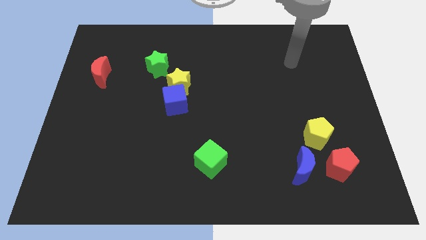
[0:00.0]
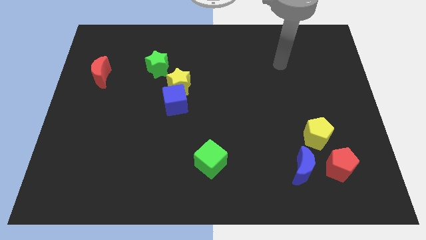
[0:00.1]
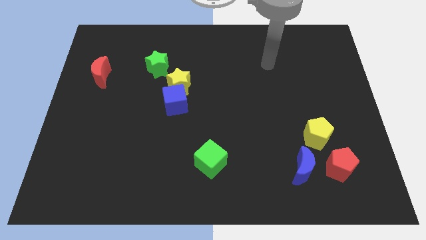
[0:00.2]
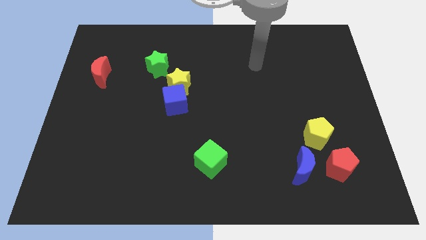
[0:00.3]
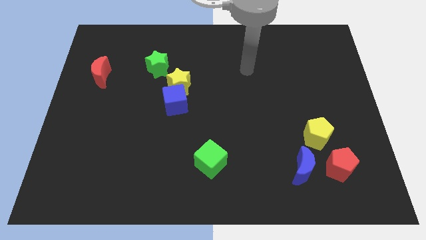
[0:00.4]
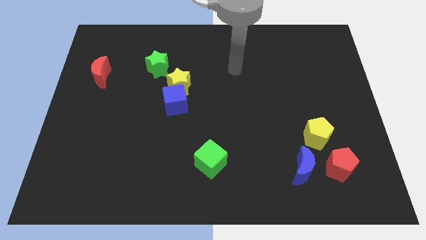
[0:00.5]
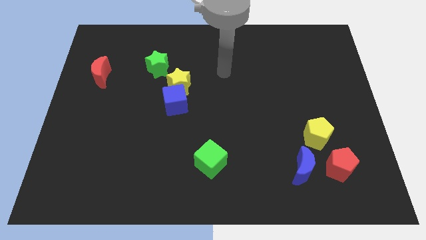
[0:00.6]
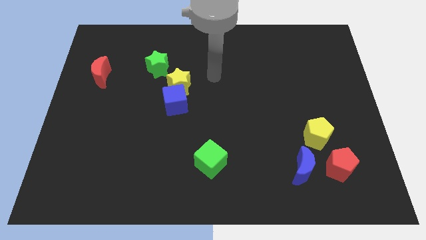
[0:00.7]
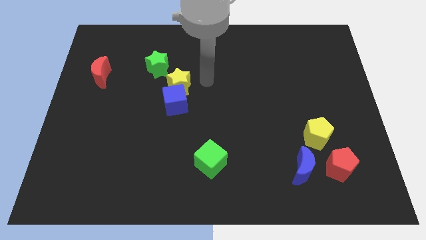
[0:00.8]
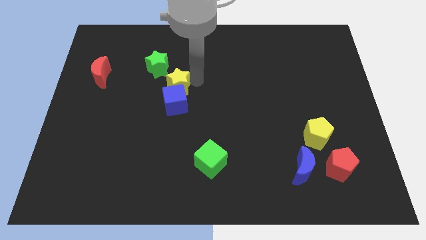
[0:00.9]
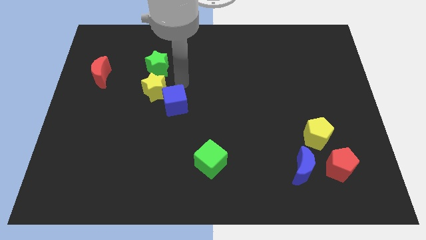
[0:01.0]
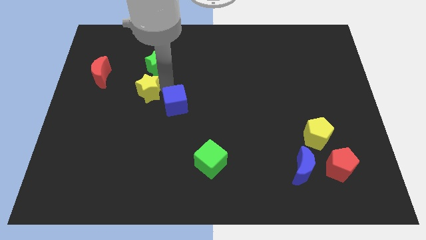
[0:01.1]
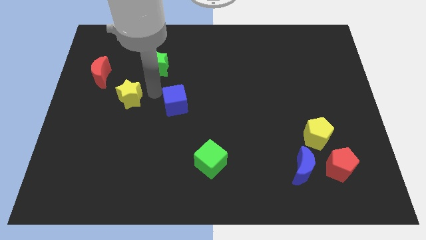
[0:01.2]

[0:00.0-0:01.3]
move the blue cube away from the yellow star

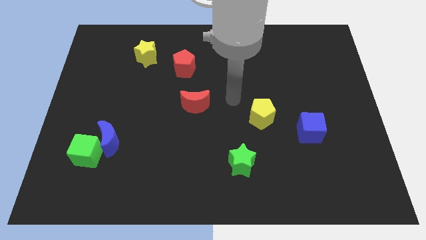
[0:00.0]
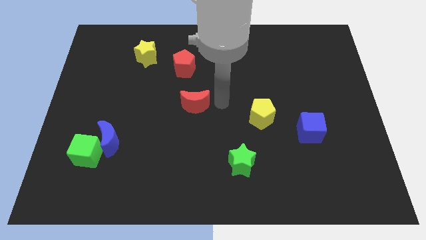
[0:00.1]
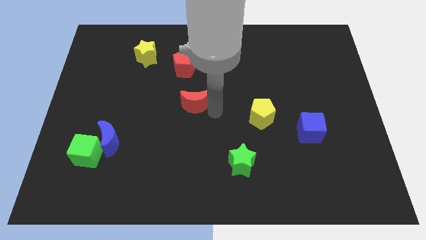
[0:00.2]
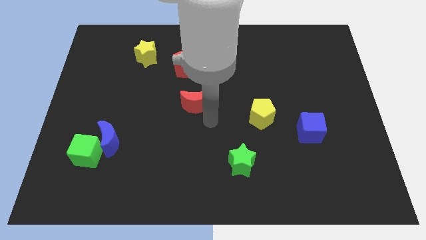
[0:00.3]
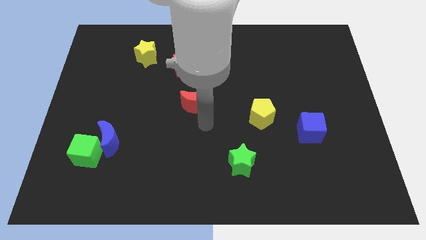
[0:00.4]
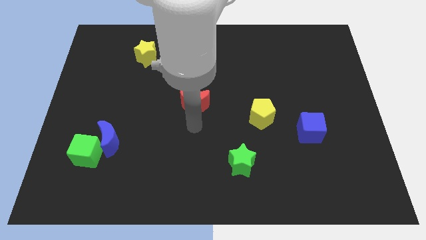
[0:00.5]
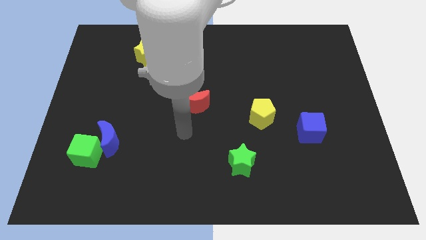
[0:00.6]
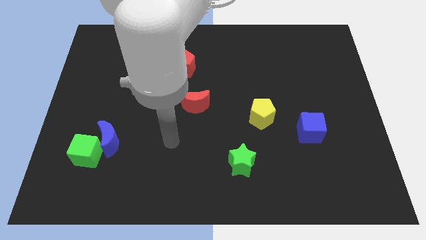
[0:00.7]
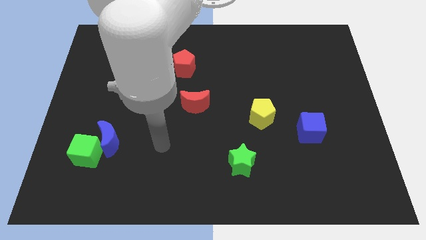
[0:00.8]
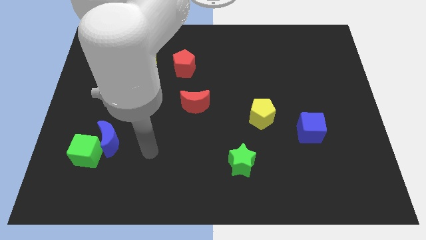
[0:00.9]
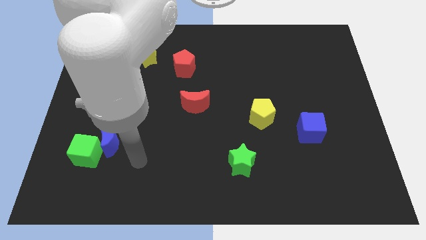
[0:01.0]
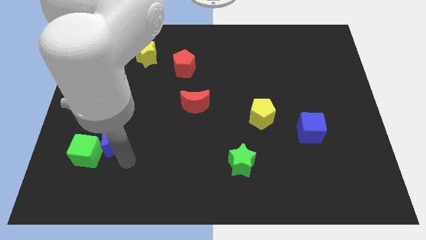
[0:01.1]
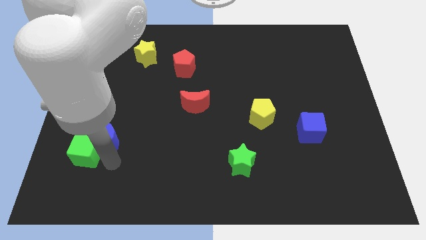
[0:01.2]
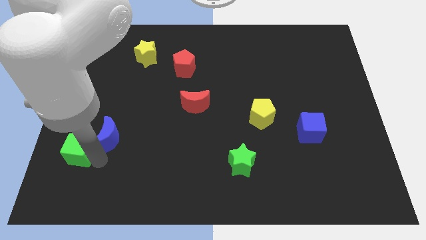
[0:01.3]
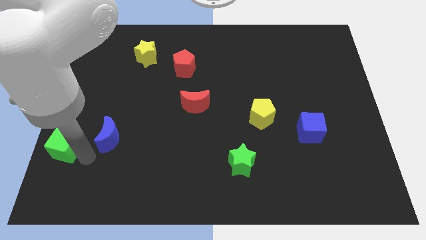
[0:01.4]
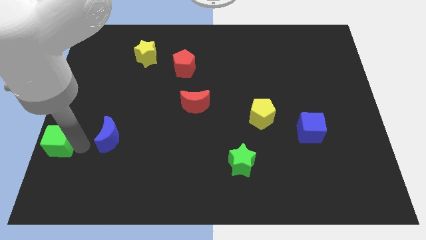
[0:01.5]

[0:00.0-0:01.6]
pull the blue moon apart from the green cube

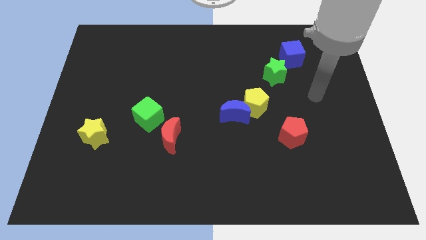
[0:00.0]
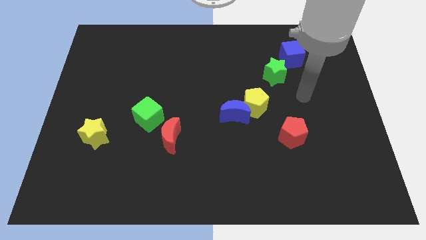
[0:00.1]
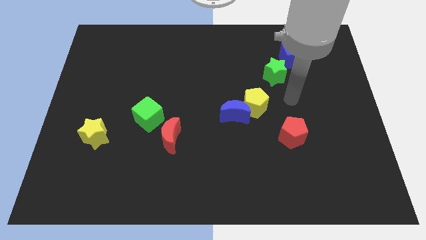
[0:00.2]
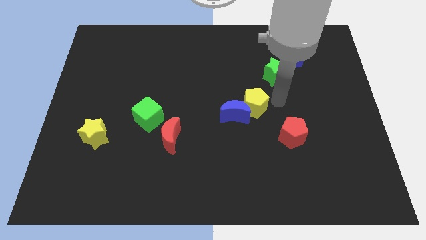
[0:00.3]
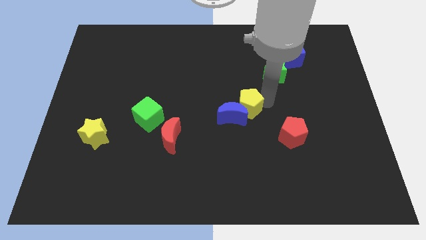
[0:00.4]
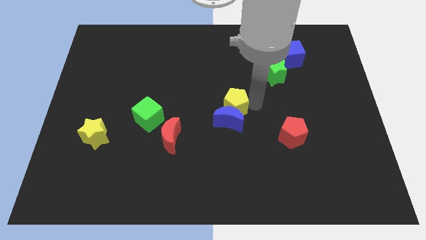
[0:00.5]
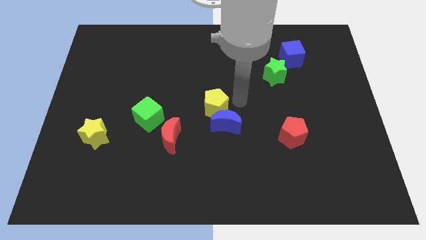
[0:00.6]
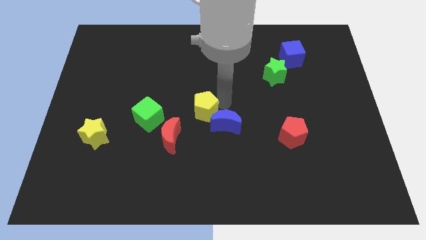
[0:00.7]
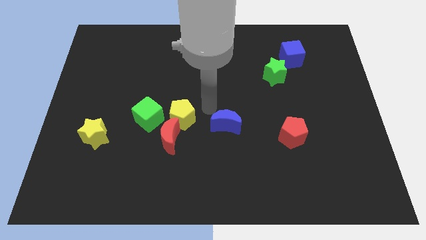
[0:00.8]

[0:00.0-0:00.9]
pull the blue moon apart from the yellow pentagon

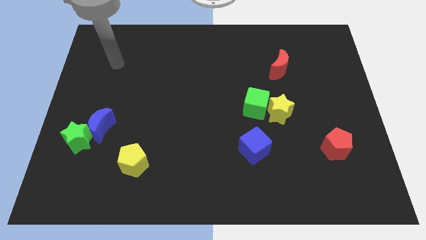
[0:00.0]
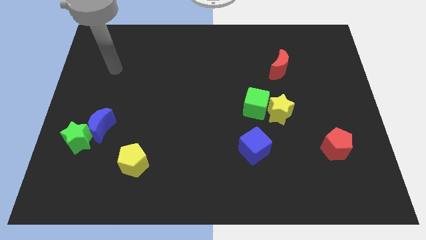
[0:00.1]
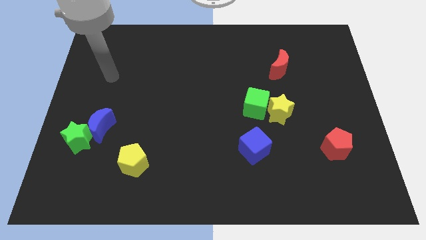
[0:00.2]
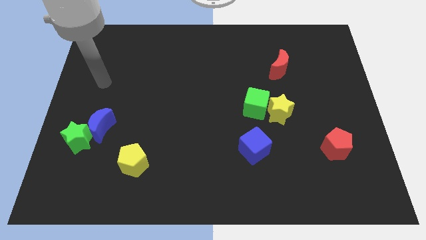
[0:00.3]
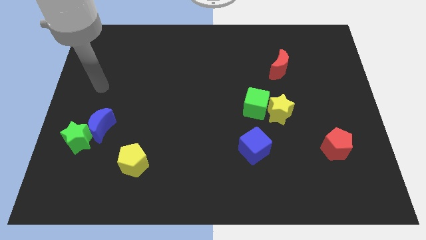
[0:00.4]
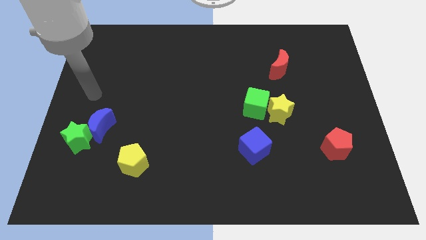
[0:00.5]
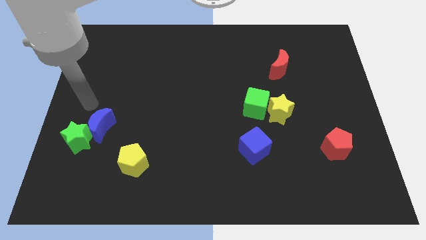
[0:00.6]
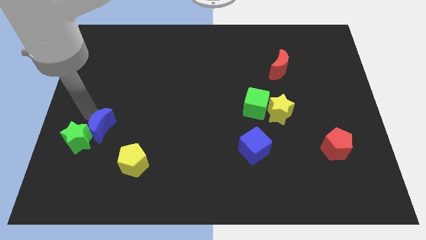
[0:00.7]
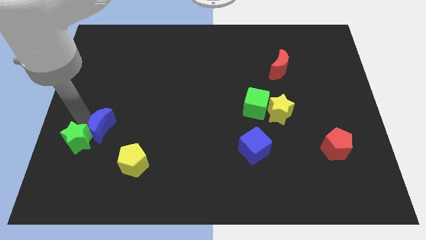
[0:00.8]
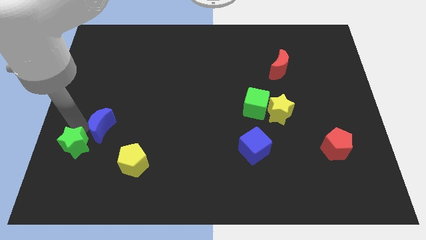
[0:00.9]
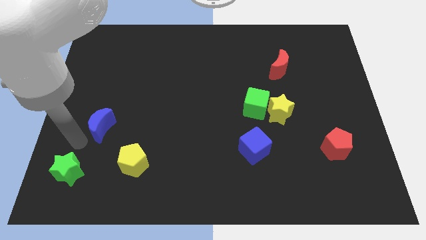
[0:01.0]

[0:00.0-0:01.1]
pull the blue moon apart from the green star

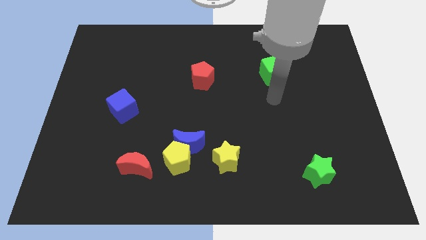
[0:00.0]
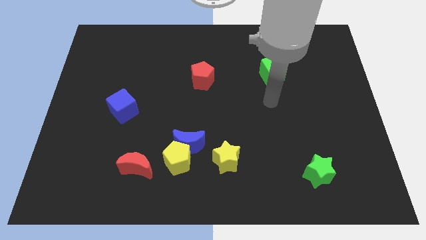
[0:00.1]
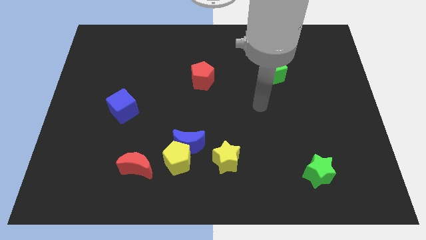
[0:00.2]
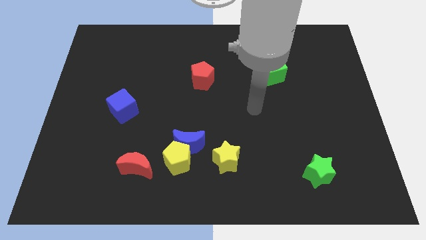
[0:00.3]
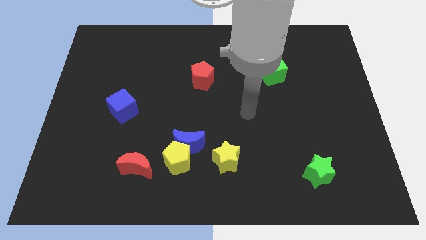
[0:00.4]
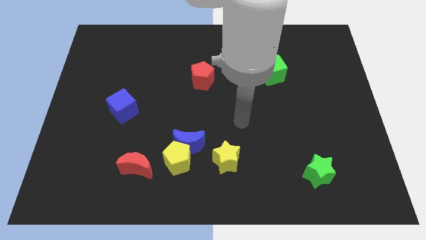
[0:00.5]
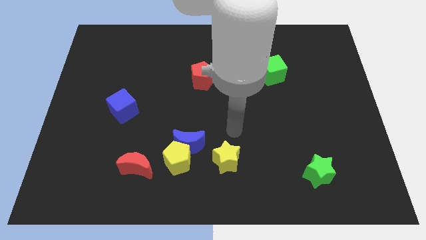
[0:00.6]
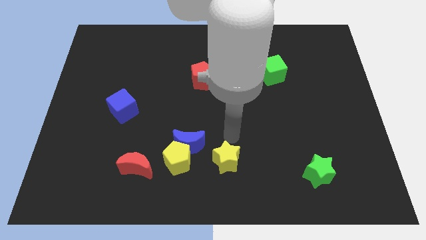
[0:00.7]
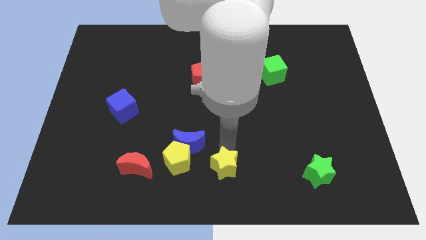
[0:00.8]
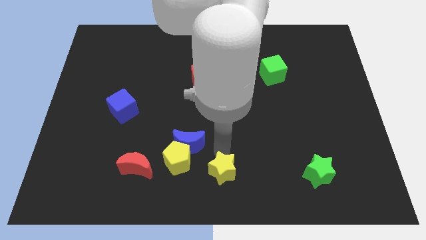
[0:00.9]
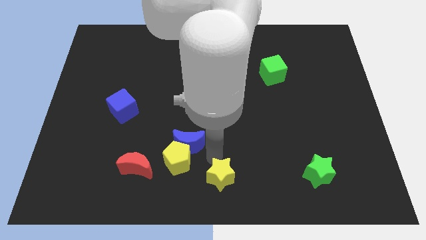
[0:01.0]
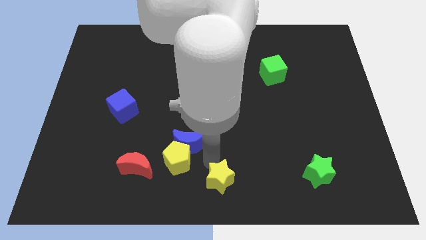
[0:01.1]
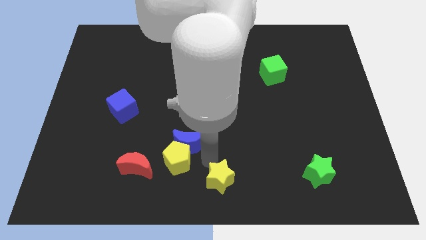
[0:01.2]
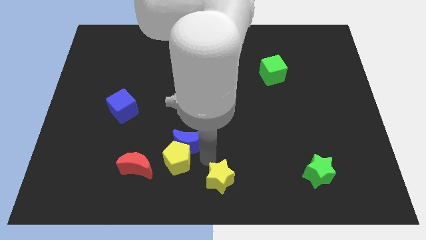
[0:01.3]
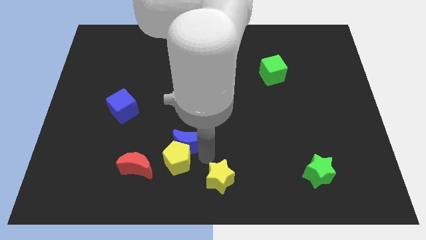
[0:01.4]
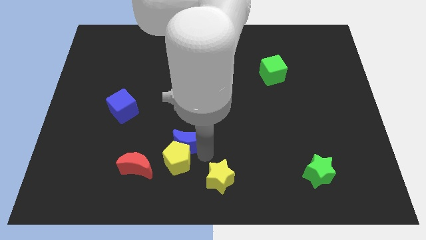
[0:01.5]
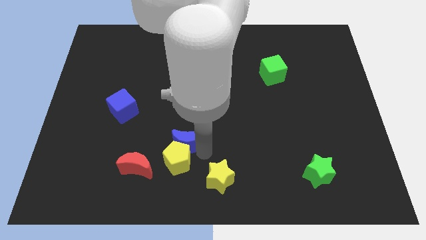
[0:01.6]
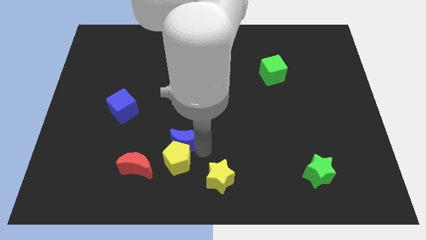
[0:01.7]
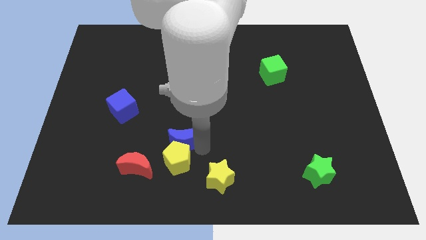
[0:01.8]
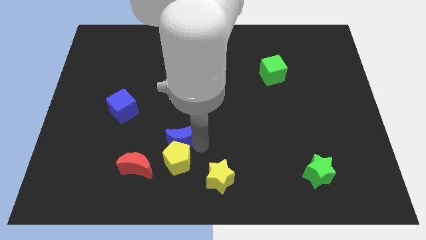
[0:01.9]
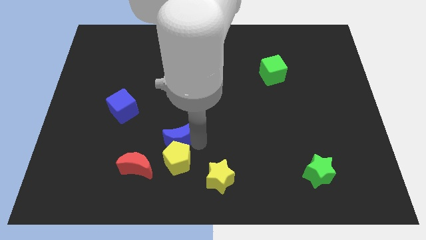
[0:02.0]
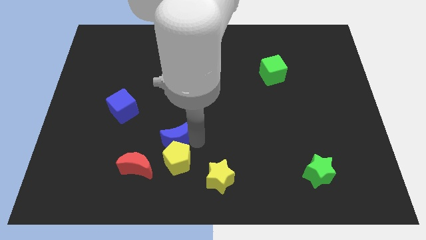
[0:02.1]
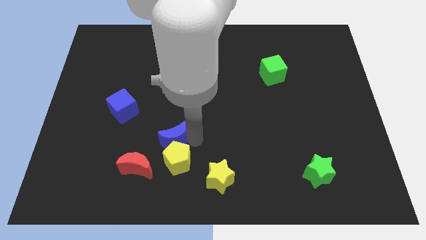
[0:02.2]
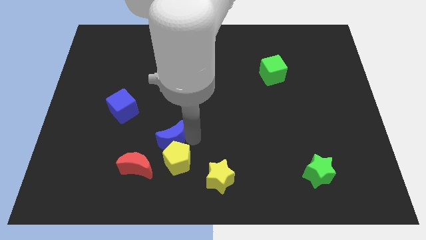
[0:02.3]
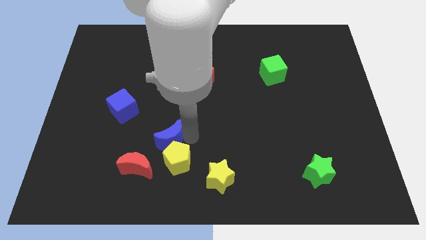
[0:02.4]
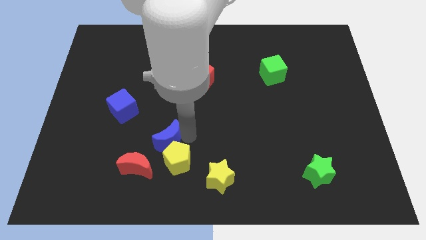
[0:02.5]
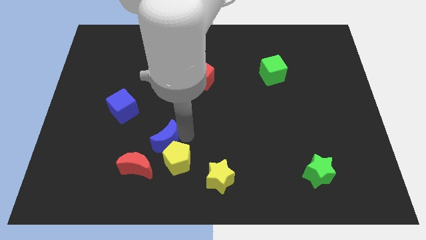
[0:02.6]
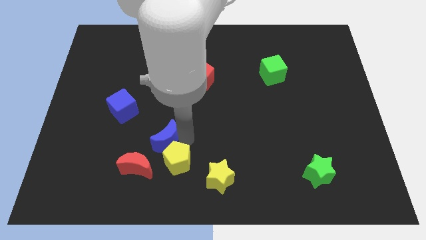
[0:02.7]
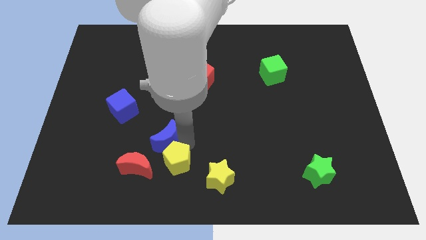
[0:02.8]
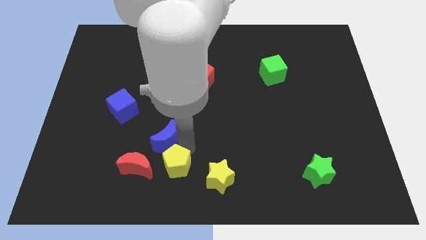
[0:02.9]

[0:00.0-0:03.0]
separate the blue moon from the yellow pentagon and yellow star

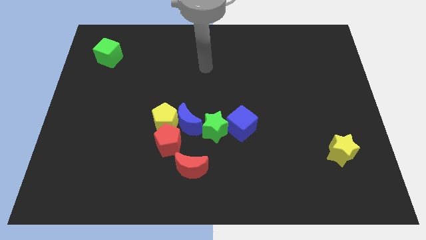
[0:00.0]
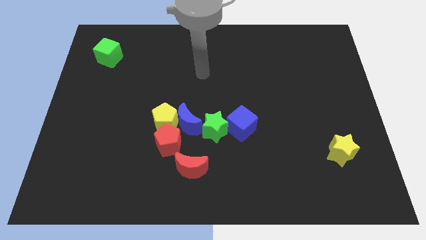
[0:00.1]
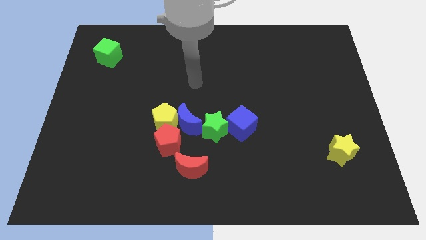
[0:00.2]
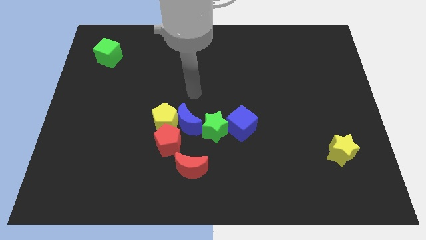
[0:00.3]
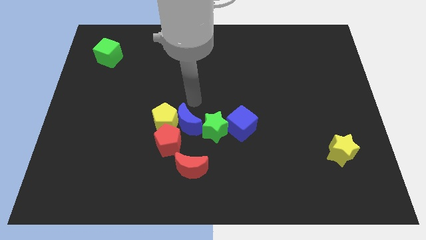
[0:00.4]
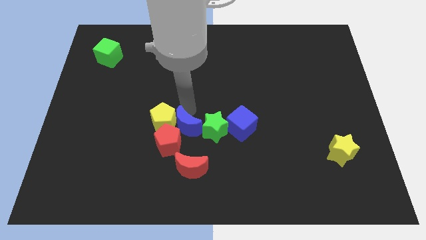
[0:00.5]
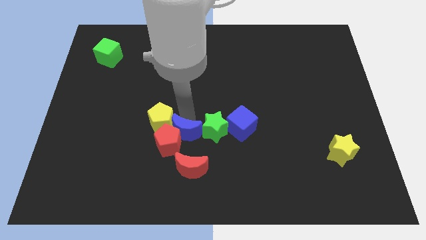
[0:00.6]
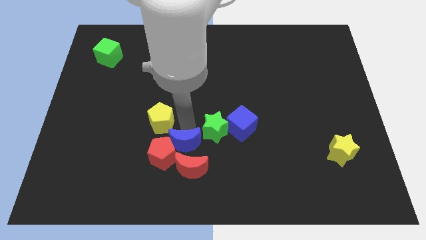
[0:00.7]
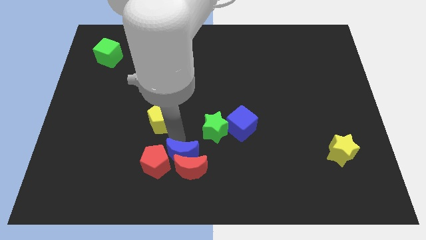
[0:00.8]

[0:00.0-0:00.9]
pull the yellow pentagon apart from the blue moon and red pentagon

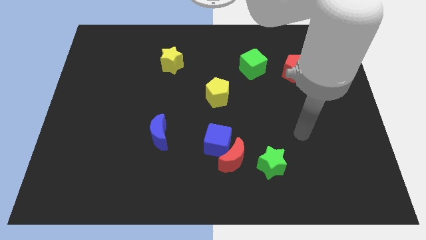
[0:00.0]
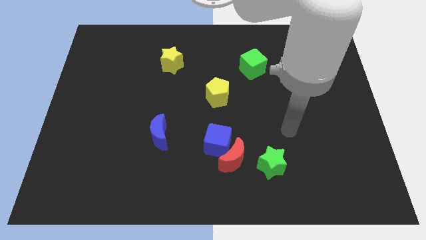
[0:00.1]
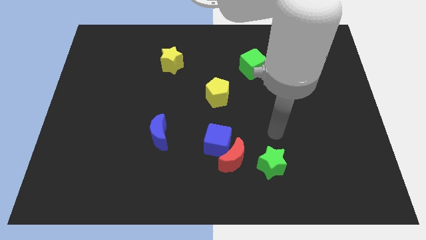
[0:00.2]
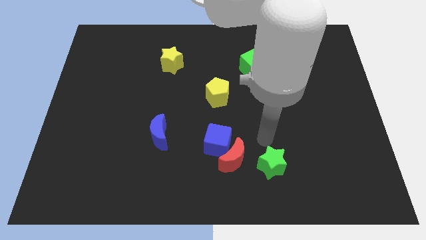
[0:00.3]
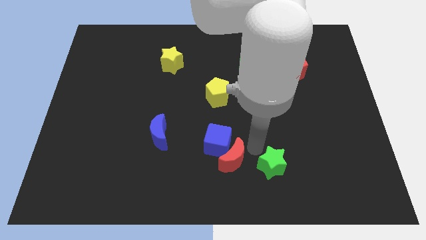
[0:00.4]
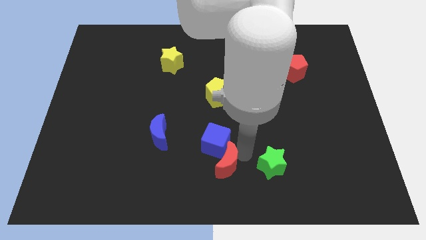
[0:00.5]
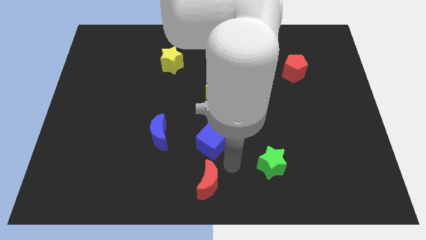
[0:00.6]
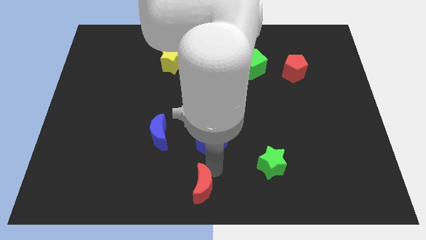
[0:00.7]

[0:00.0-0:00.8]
separate the blue cube from the red moon
